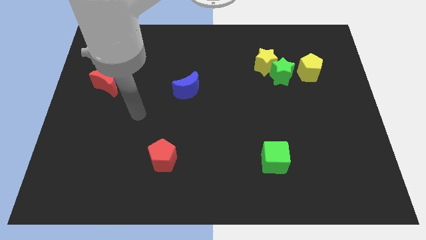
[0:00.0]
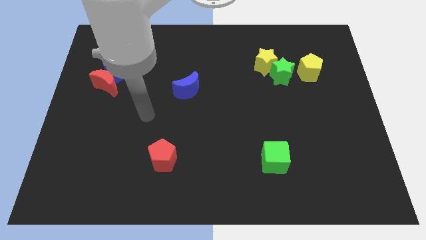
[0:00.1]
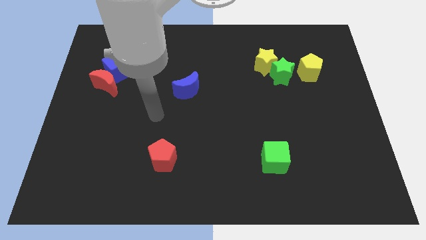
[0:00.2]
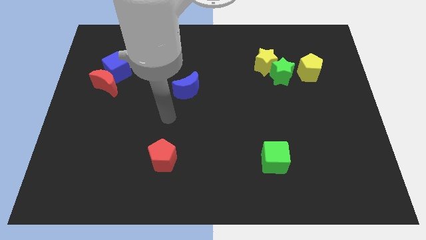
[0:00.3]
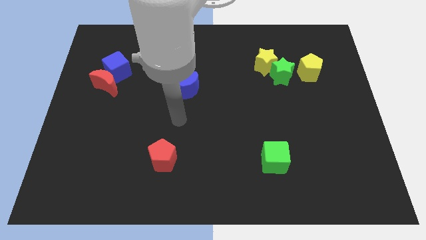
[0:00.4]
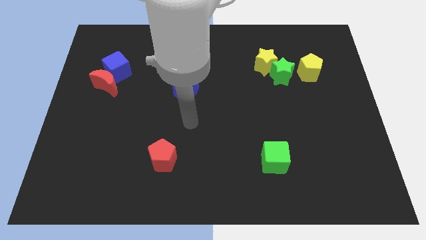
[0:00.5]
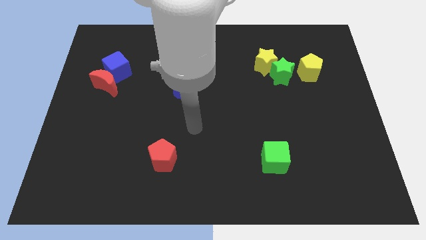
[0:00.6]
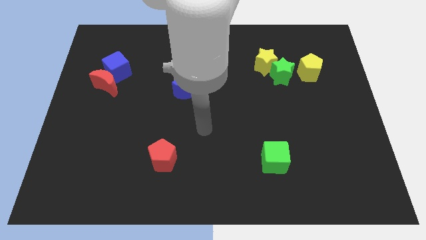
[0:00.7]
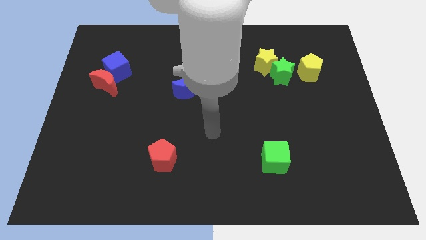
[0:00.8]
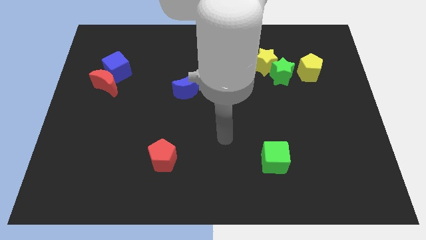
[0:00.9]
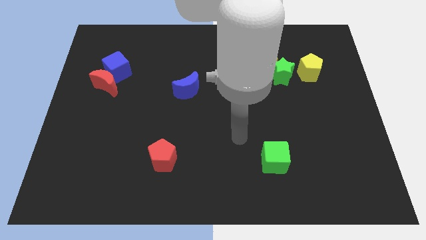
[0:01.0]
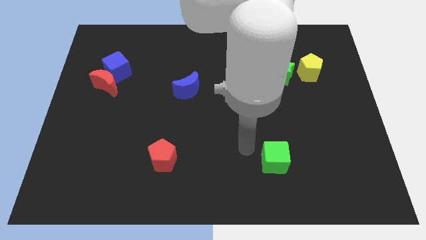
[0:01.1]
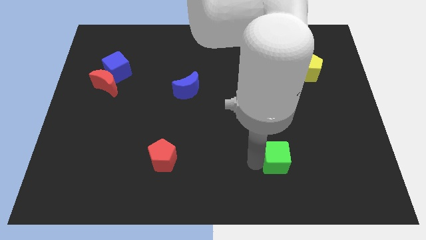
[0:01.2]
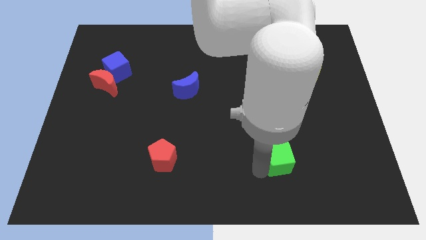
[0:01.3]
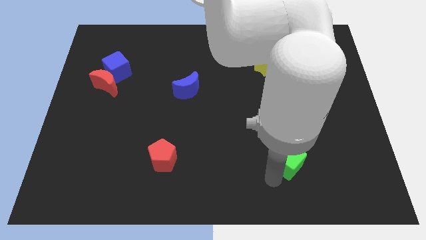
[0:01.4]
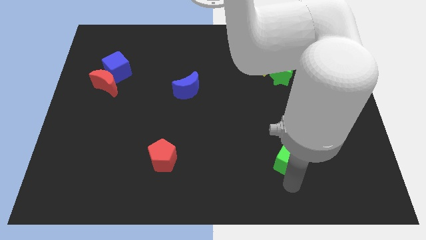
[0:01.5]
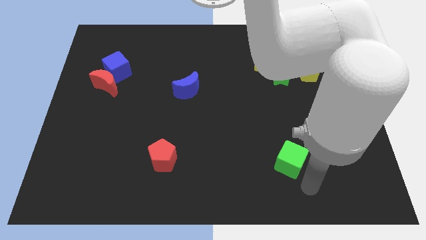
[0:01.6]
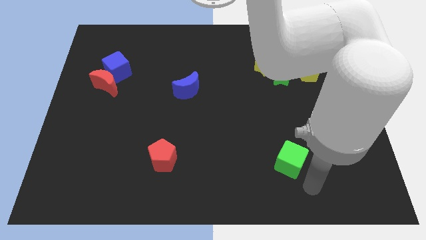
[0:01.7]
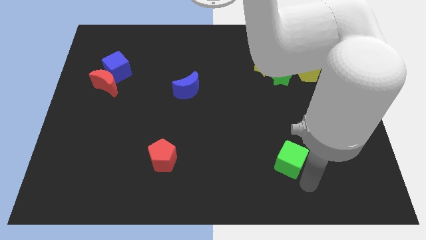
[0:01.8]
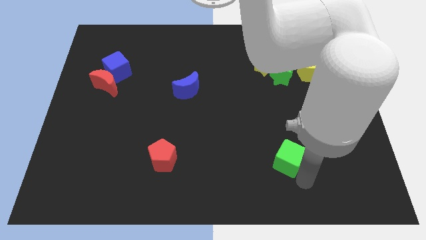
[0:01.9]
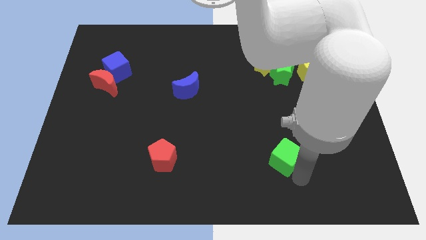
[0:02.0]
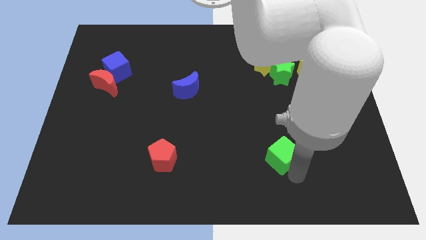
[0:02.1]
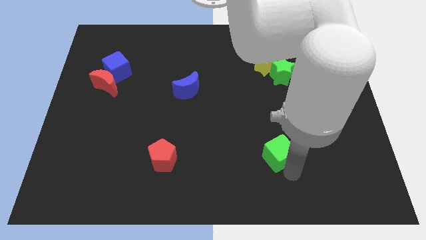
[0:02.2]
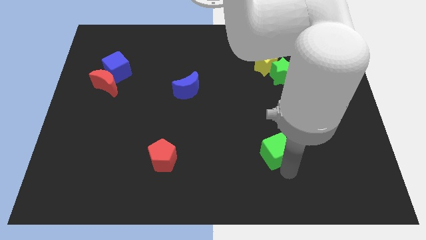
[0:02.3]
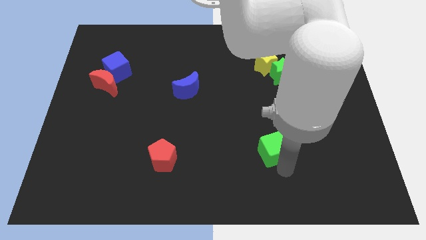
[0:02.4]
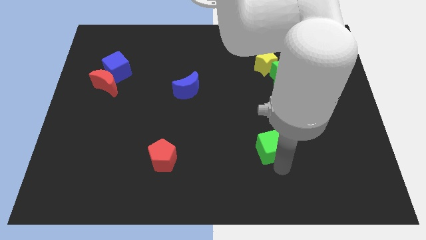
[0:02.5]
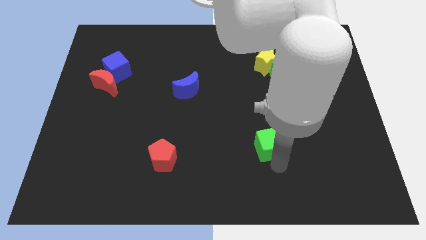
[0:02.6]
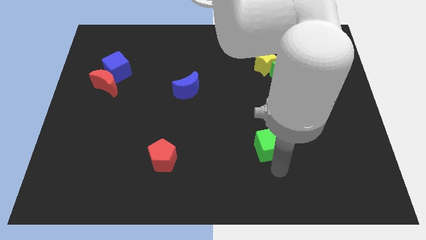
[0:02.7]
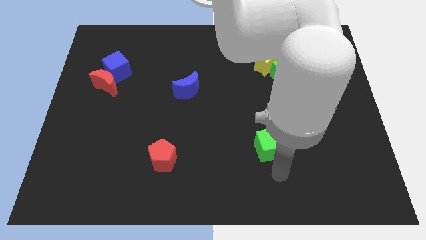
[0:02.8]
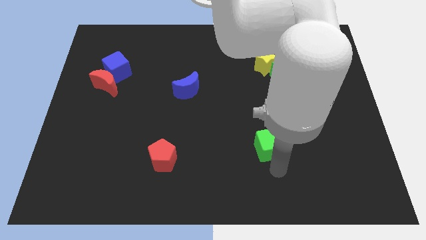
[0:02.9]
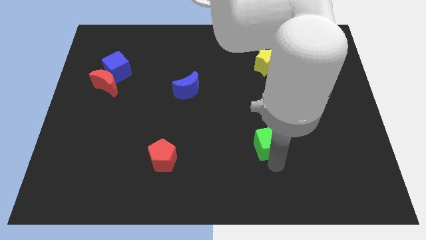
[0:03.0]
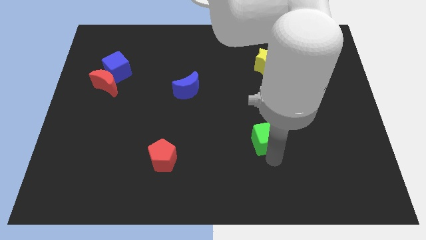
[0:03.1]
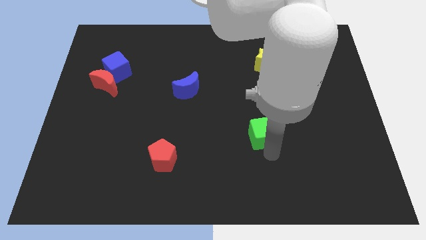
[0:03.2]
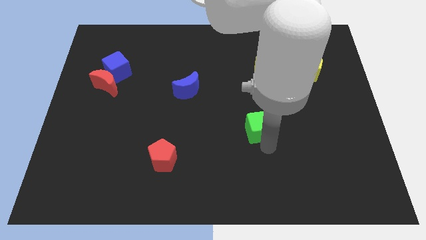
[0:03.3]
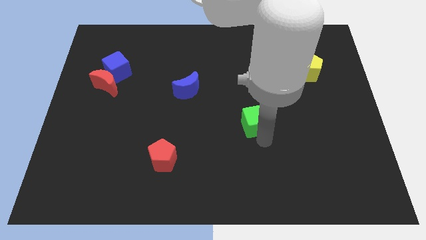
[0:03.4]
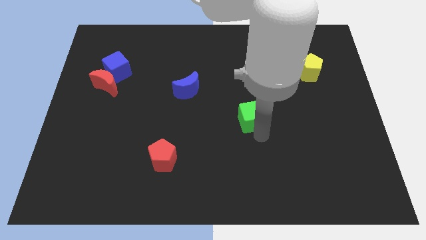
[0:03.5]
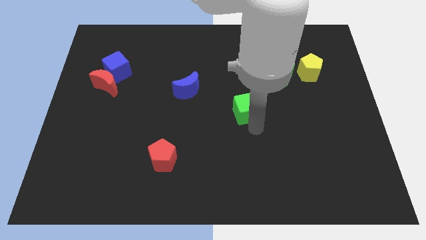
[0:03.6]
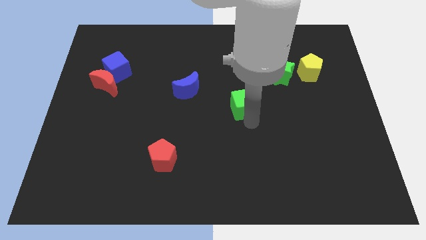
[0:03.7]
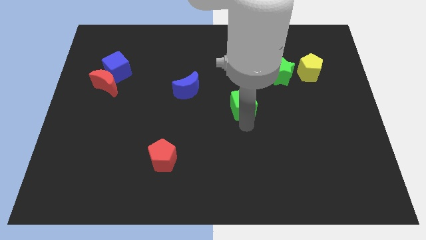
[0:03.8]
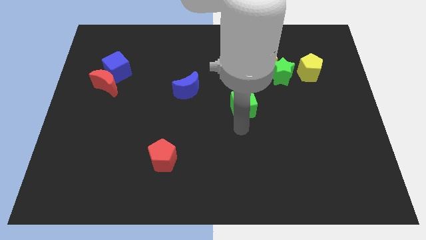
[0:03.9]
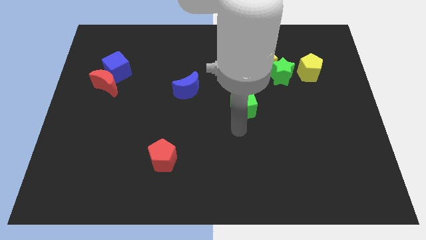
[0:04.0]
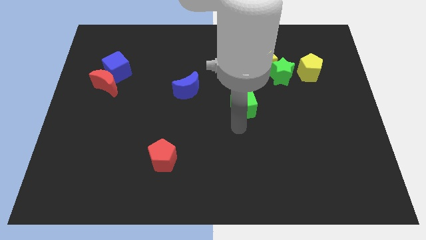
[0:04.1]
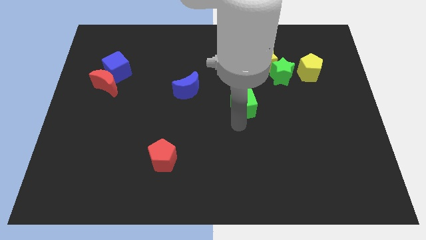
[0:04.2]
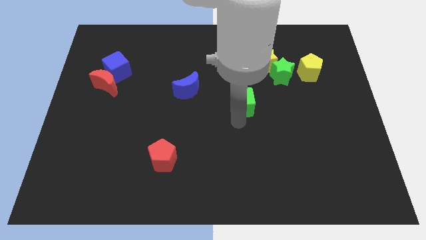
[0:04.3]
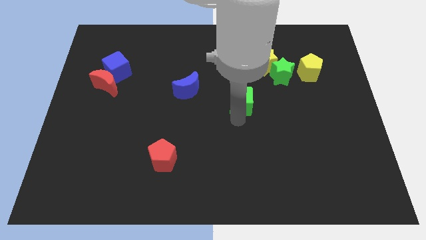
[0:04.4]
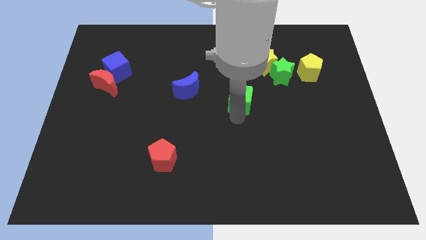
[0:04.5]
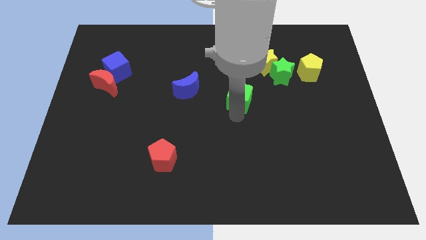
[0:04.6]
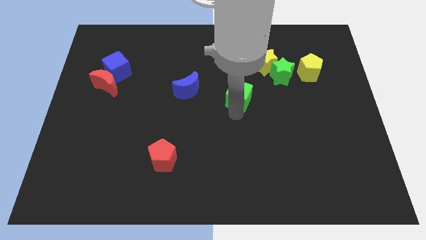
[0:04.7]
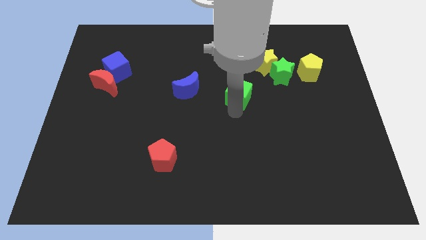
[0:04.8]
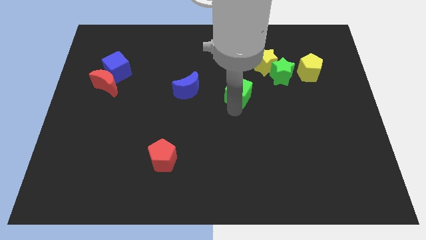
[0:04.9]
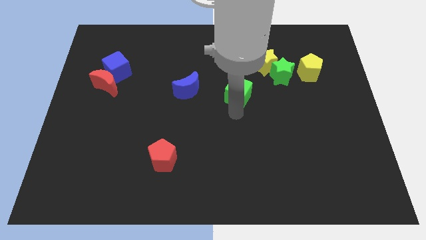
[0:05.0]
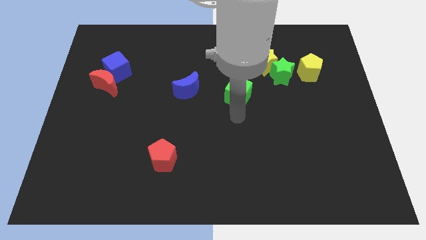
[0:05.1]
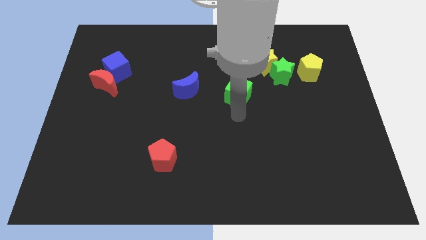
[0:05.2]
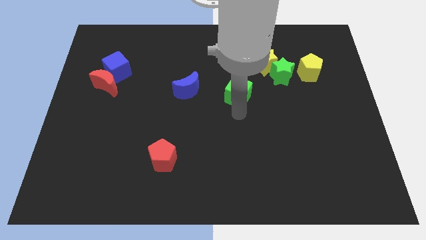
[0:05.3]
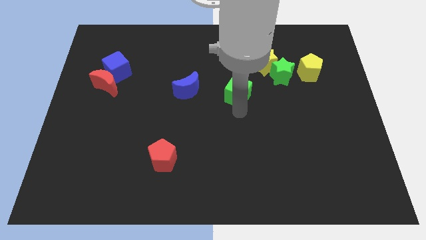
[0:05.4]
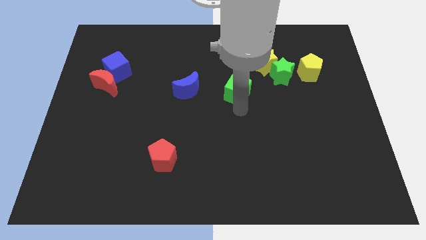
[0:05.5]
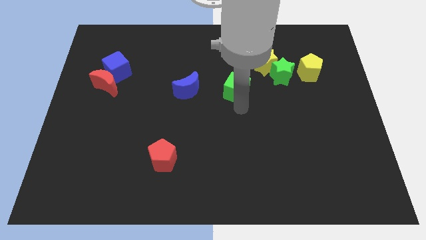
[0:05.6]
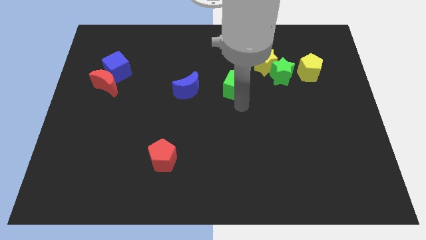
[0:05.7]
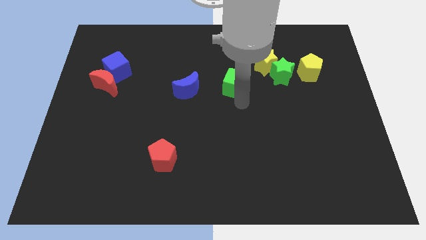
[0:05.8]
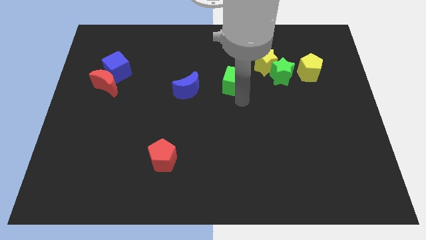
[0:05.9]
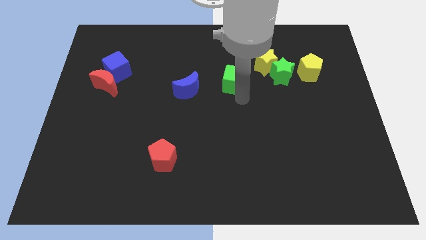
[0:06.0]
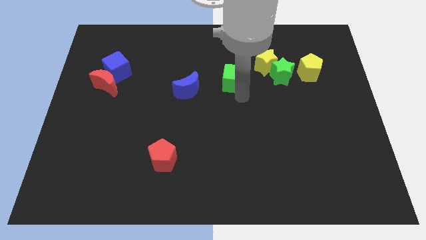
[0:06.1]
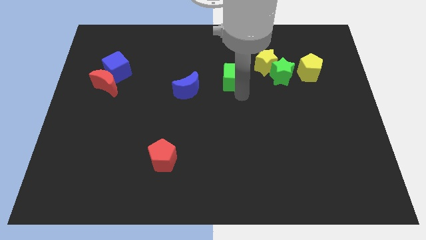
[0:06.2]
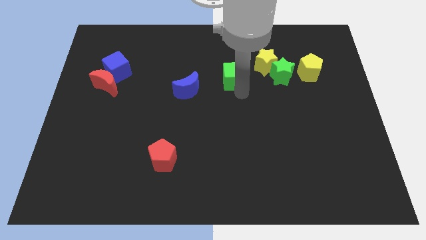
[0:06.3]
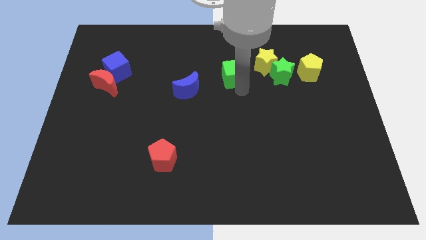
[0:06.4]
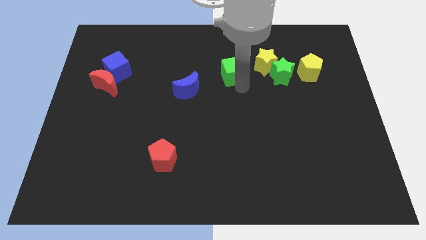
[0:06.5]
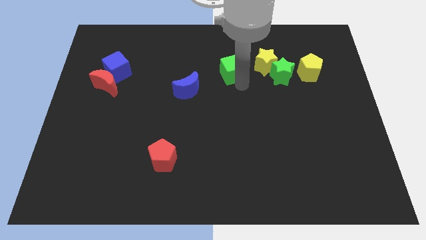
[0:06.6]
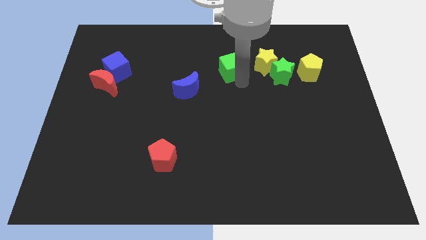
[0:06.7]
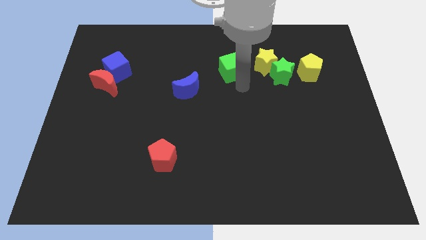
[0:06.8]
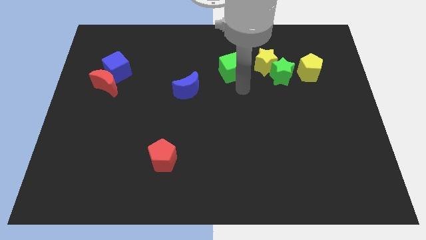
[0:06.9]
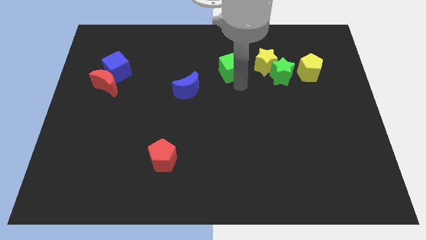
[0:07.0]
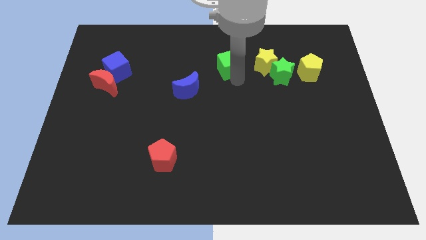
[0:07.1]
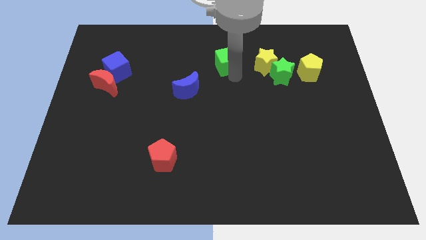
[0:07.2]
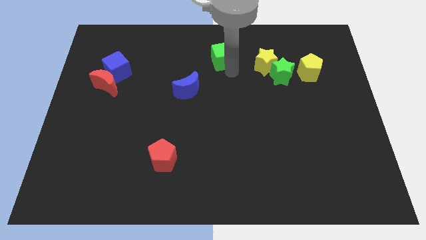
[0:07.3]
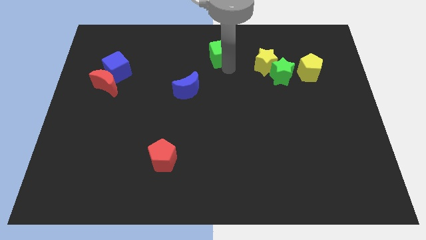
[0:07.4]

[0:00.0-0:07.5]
slide the green cube to the top
